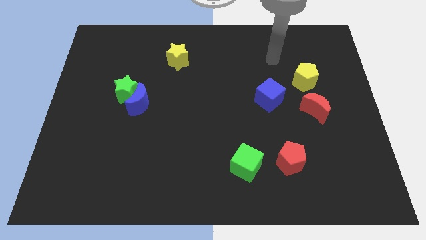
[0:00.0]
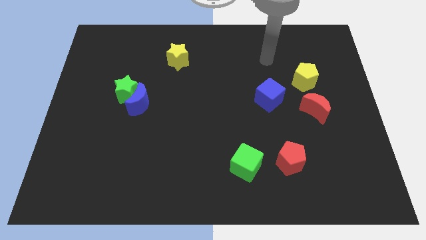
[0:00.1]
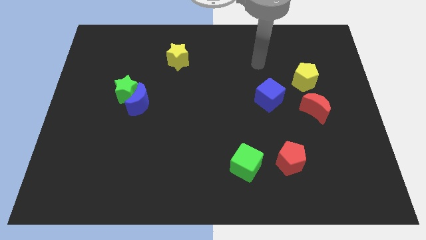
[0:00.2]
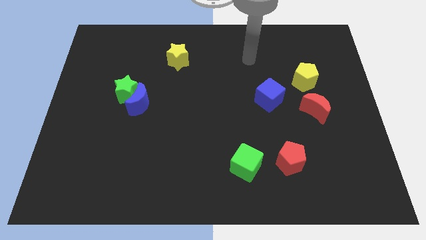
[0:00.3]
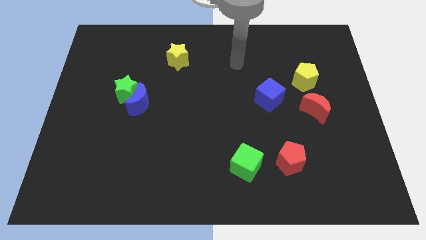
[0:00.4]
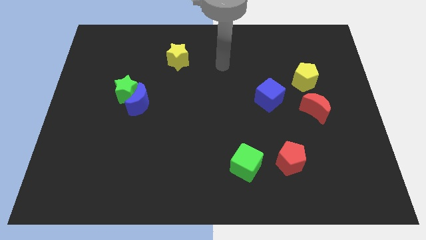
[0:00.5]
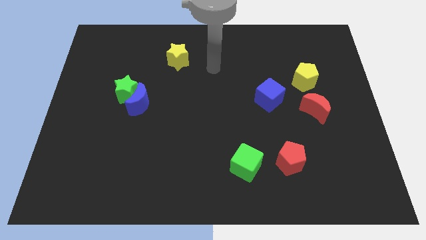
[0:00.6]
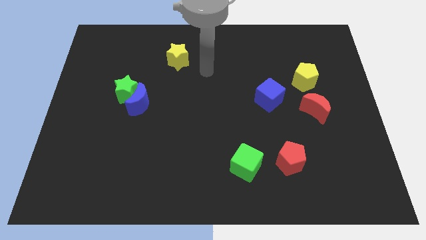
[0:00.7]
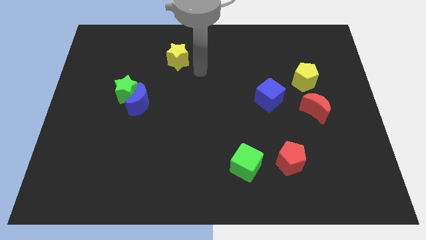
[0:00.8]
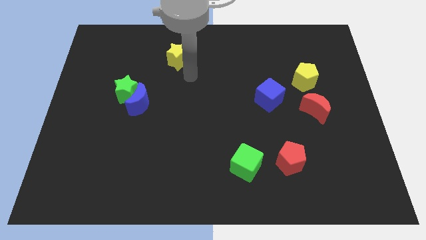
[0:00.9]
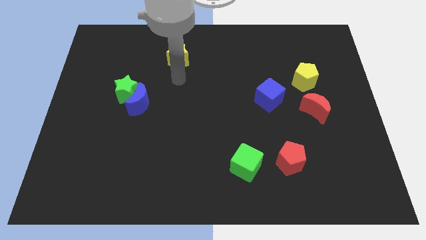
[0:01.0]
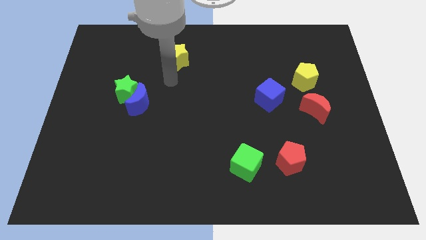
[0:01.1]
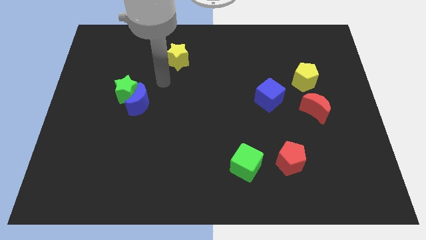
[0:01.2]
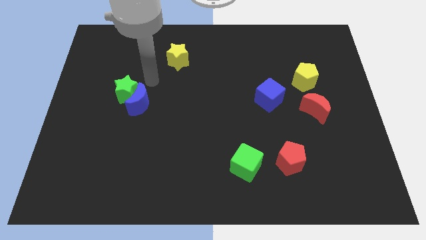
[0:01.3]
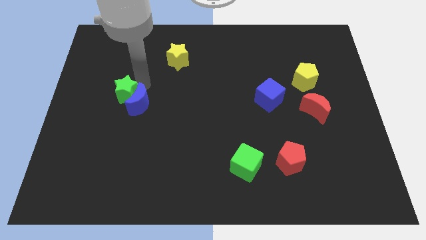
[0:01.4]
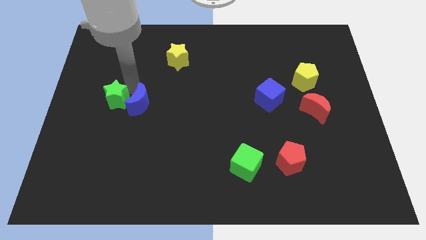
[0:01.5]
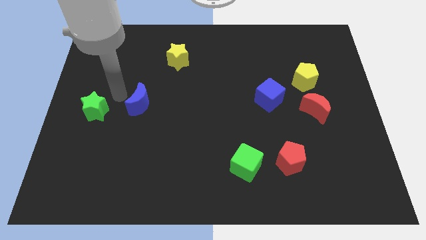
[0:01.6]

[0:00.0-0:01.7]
move the blue moon away from the green star

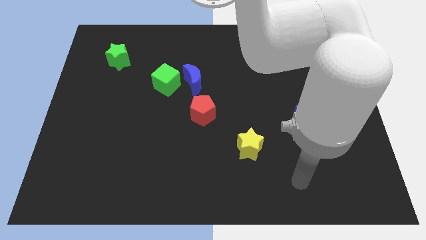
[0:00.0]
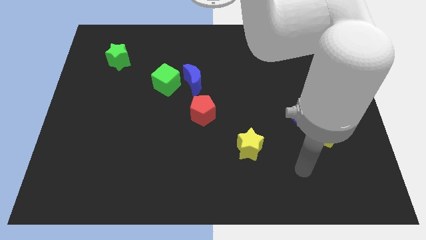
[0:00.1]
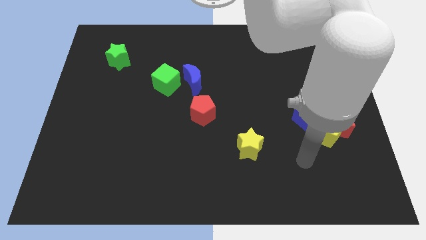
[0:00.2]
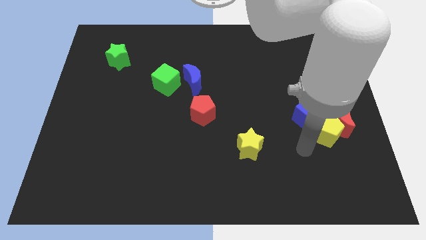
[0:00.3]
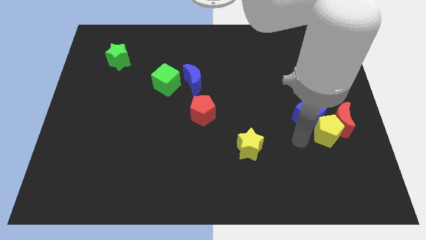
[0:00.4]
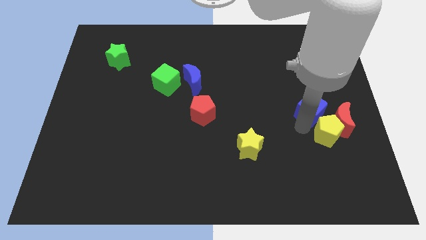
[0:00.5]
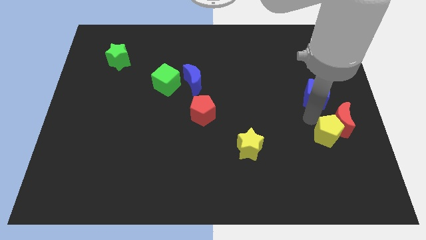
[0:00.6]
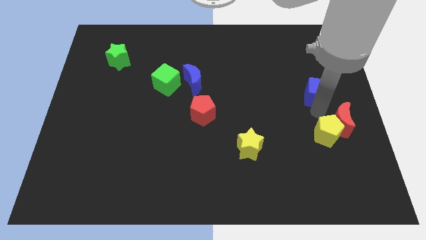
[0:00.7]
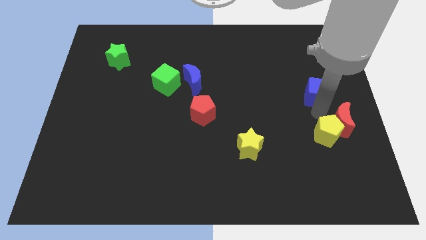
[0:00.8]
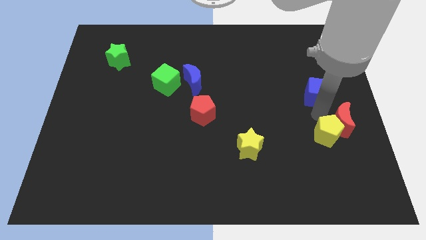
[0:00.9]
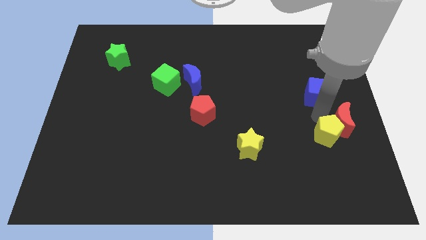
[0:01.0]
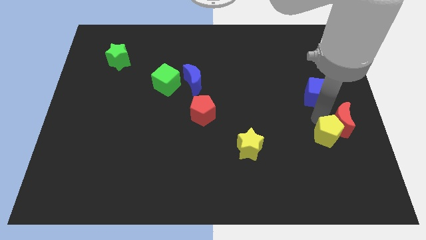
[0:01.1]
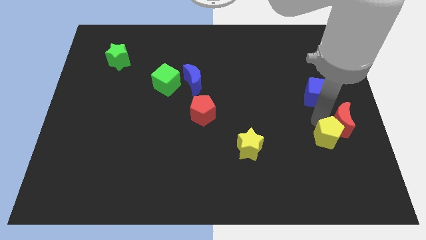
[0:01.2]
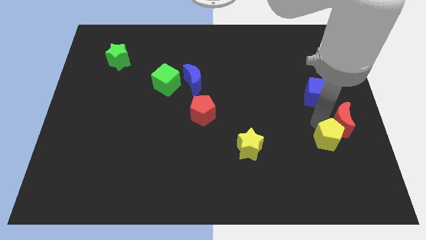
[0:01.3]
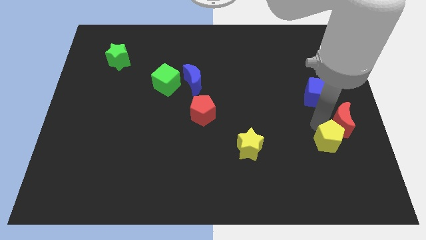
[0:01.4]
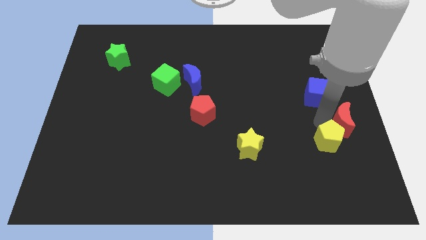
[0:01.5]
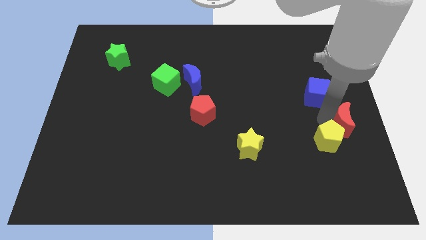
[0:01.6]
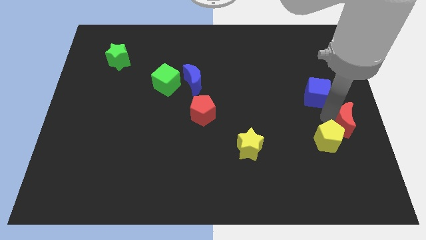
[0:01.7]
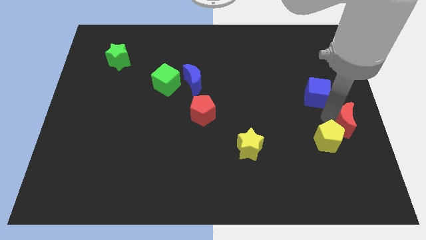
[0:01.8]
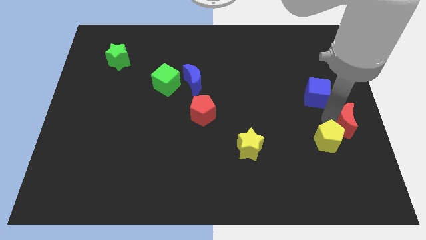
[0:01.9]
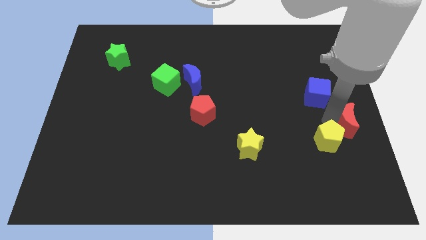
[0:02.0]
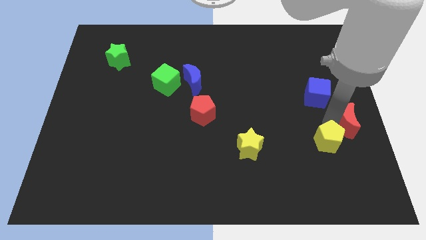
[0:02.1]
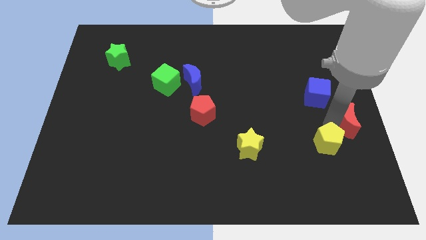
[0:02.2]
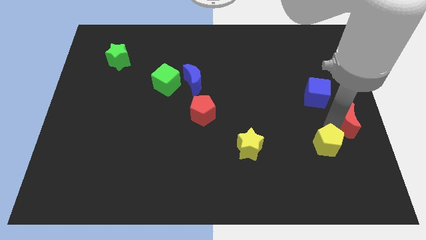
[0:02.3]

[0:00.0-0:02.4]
separate the yellow pentagon from the red moon and blue cube

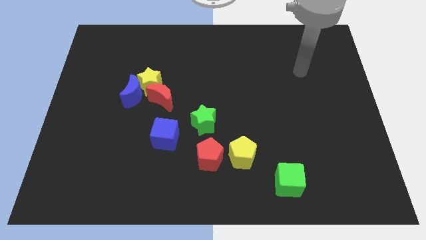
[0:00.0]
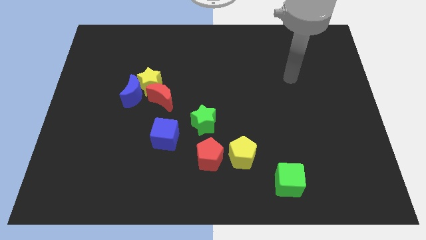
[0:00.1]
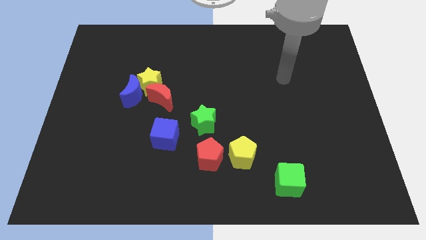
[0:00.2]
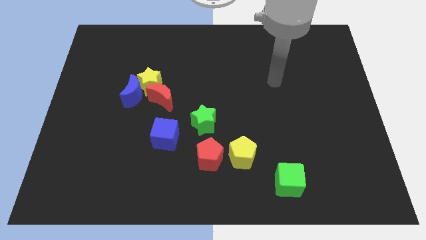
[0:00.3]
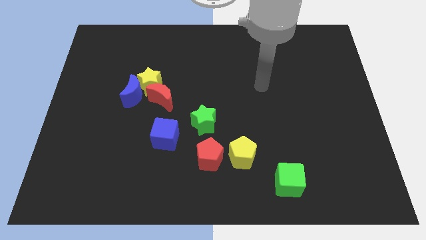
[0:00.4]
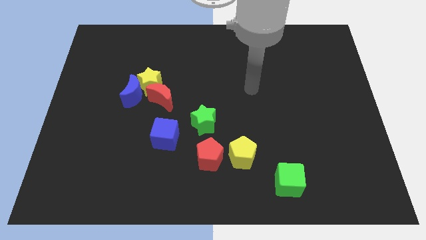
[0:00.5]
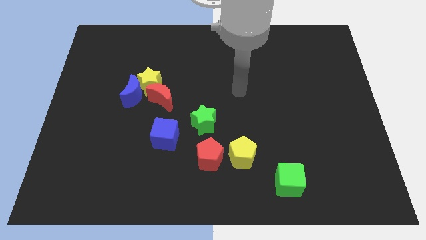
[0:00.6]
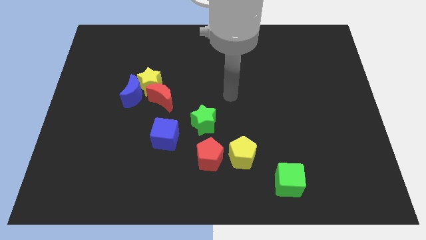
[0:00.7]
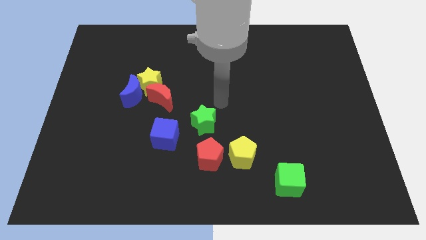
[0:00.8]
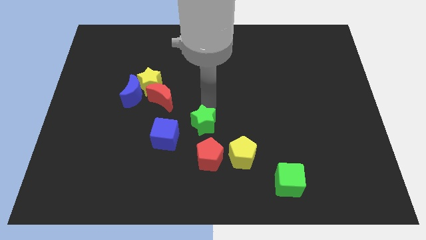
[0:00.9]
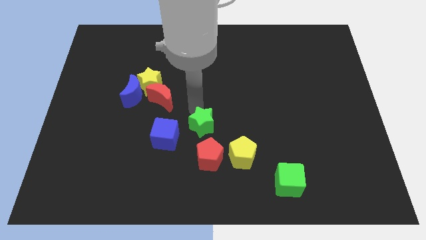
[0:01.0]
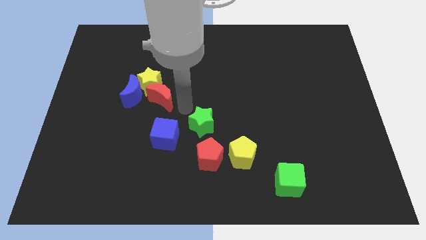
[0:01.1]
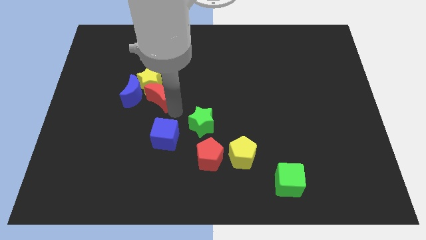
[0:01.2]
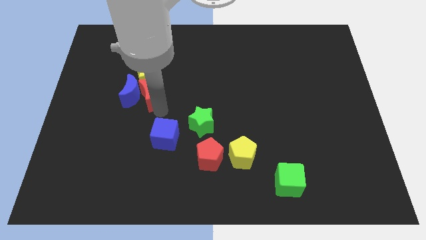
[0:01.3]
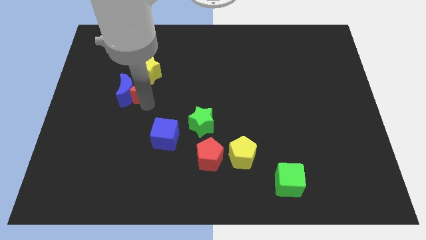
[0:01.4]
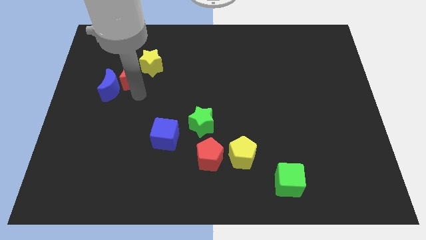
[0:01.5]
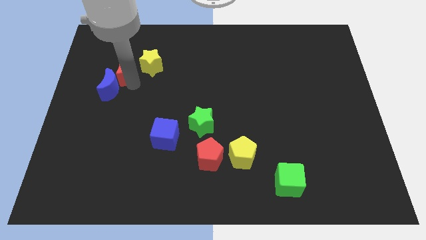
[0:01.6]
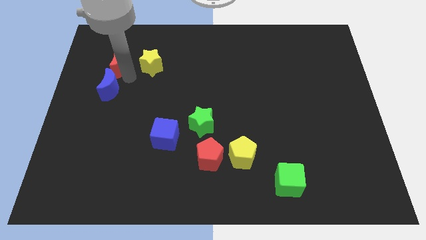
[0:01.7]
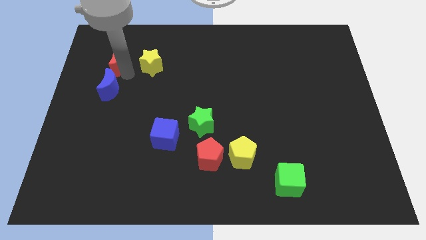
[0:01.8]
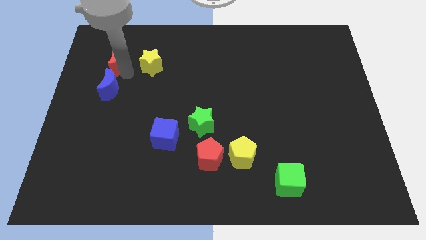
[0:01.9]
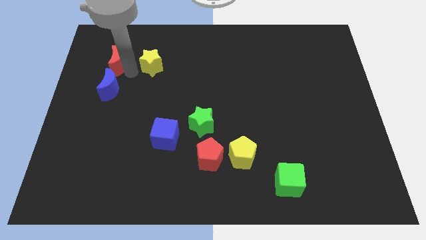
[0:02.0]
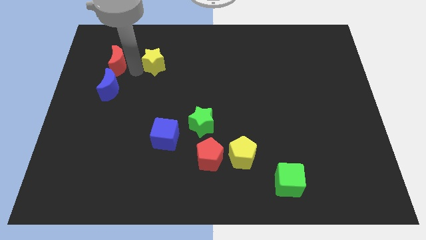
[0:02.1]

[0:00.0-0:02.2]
move the yellow star away from the blue moon and red moon

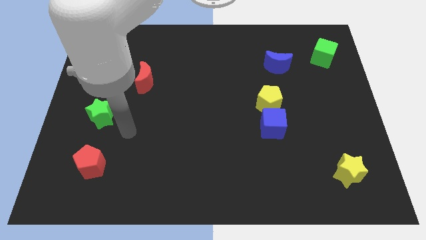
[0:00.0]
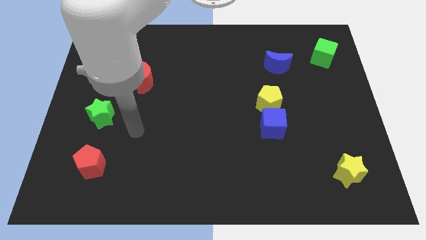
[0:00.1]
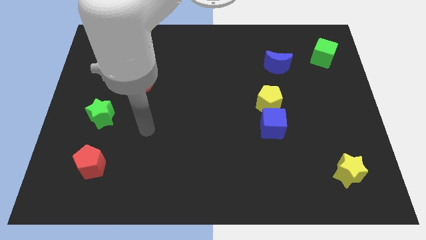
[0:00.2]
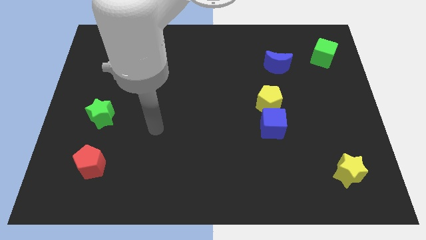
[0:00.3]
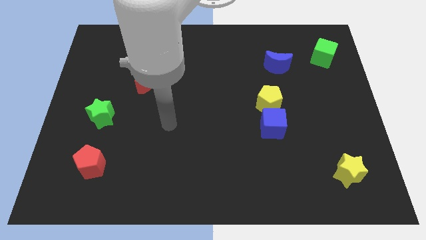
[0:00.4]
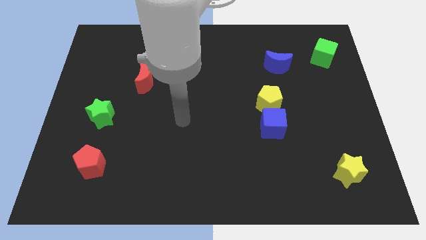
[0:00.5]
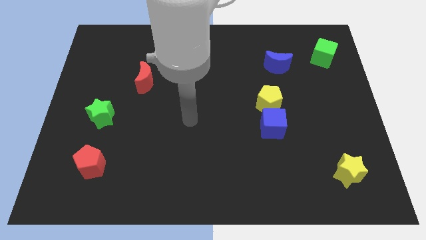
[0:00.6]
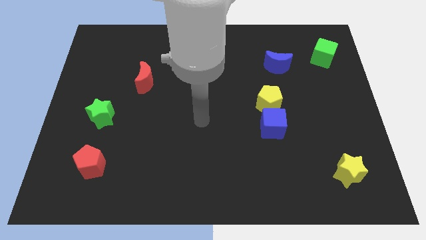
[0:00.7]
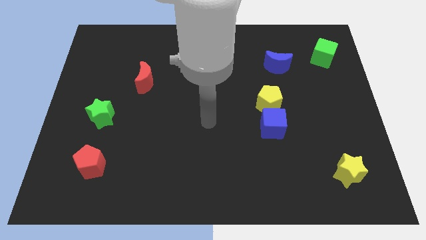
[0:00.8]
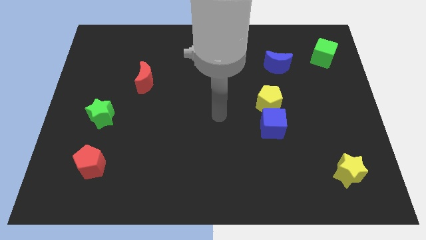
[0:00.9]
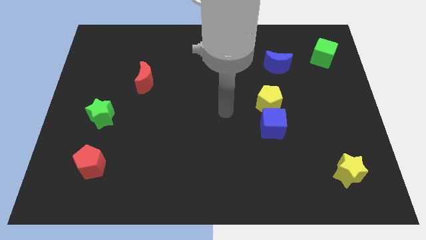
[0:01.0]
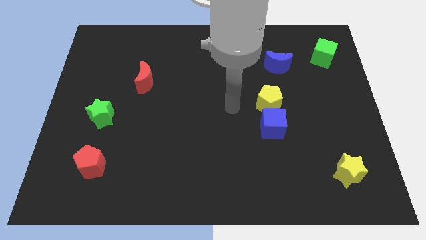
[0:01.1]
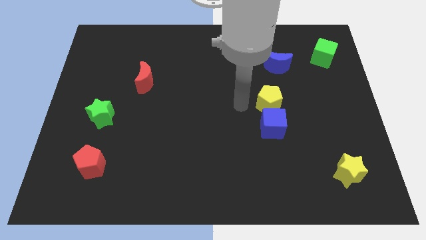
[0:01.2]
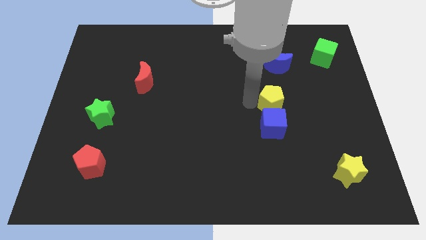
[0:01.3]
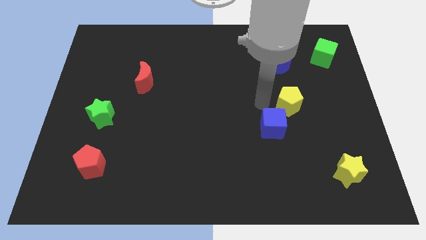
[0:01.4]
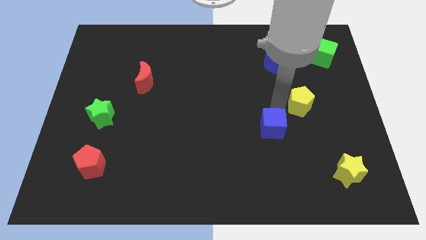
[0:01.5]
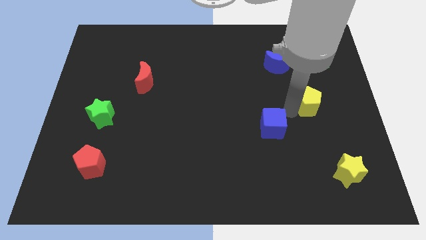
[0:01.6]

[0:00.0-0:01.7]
pull the blue cube apart from the yellow pentagon

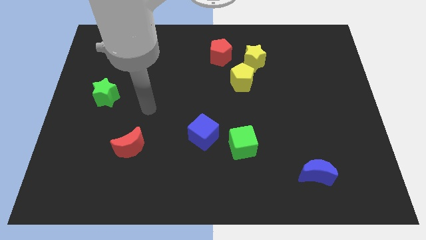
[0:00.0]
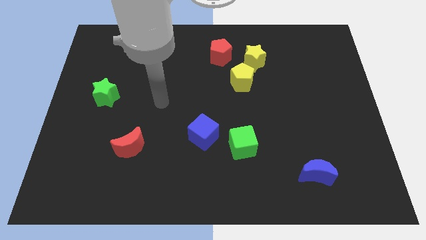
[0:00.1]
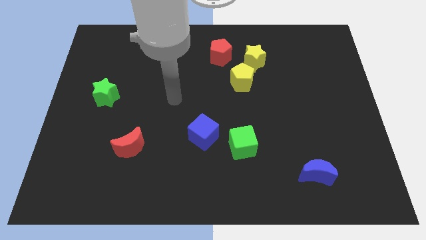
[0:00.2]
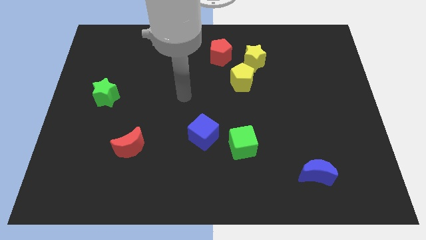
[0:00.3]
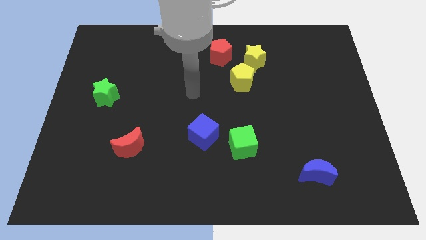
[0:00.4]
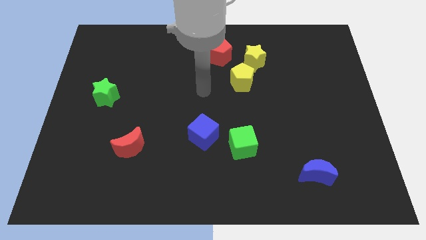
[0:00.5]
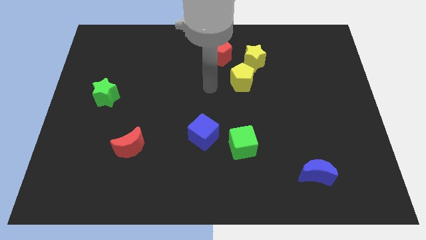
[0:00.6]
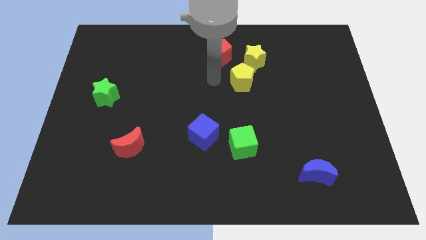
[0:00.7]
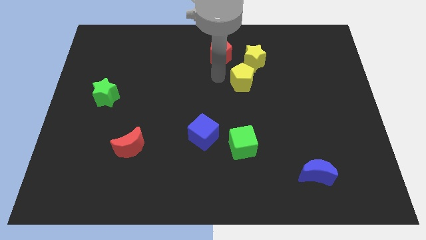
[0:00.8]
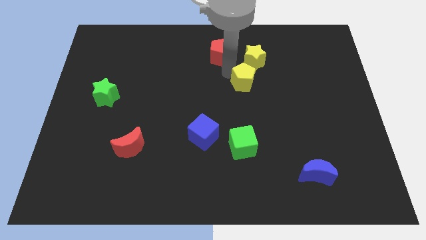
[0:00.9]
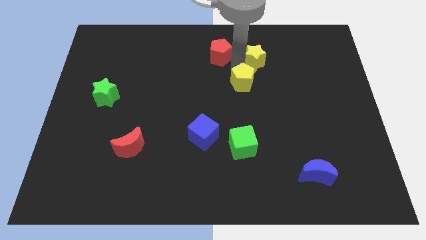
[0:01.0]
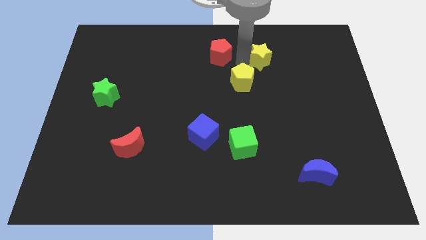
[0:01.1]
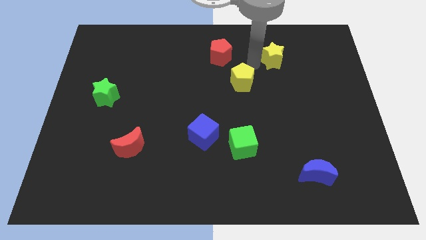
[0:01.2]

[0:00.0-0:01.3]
pull the yellow pentagon apart from the yellow star
